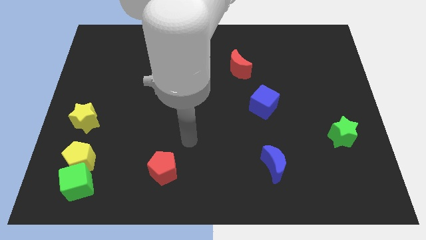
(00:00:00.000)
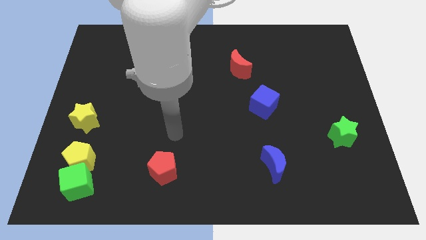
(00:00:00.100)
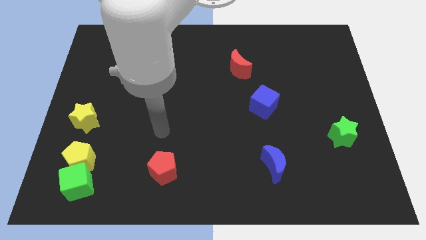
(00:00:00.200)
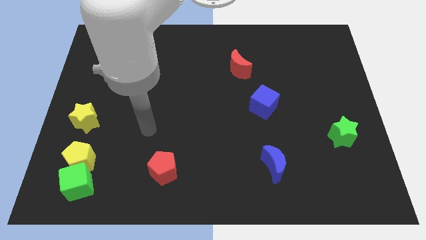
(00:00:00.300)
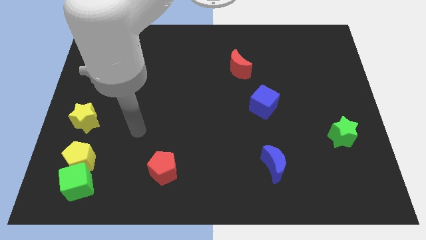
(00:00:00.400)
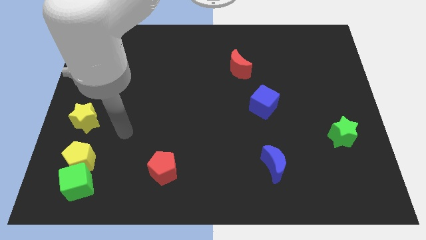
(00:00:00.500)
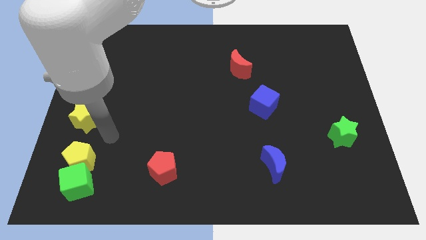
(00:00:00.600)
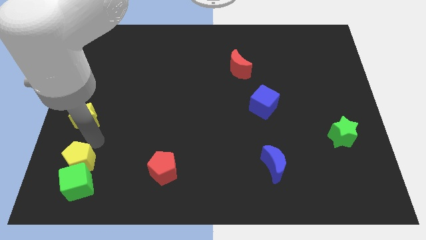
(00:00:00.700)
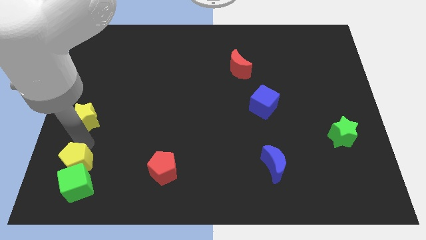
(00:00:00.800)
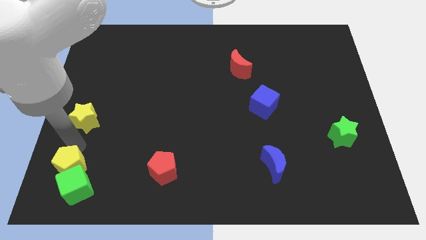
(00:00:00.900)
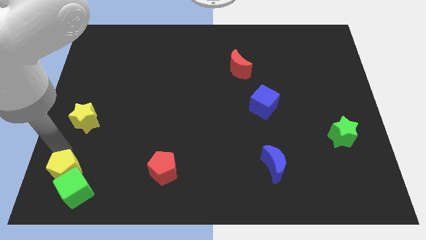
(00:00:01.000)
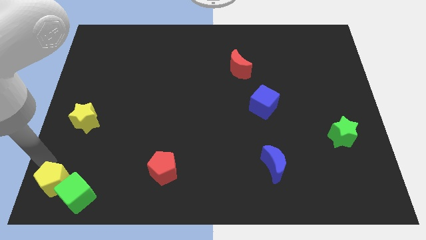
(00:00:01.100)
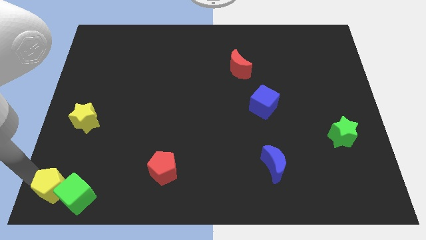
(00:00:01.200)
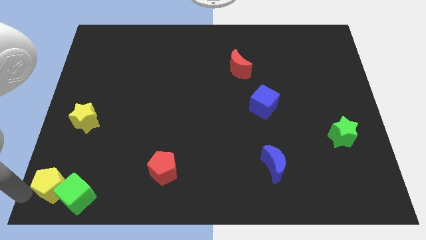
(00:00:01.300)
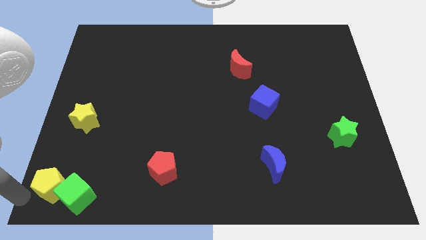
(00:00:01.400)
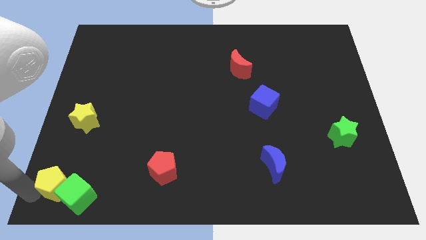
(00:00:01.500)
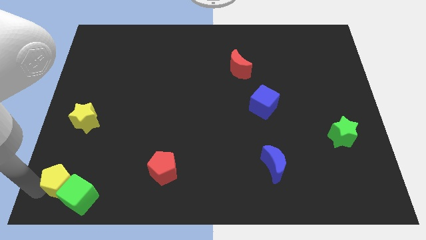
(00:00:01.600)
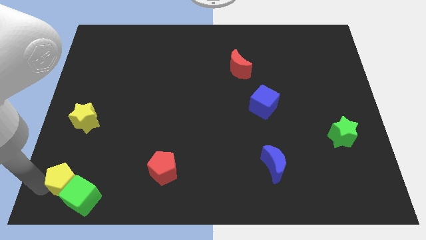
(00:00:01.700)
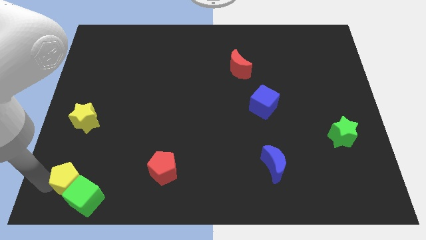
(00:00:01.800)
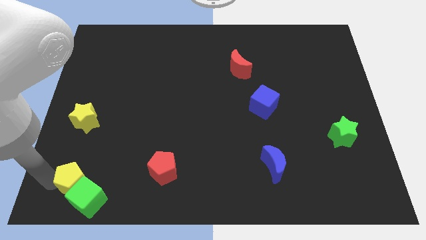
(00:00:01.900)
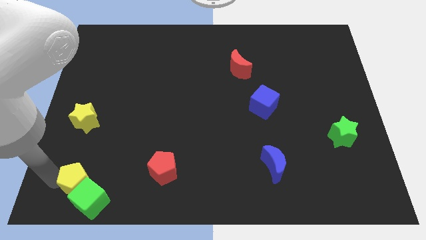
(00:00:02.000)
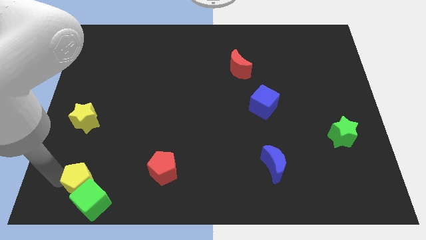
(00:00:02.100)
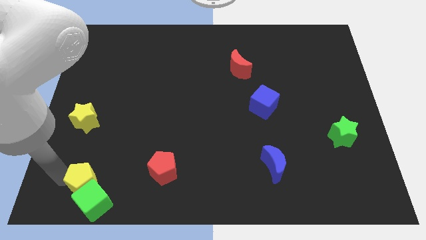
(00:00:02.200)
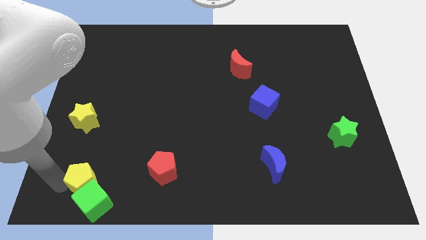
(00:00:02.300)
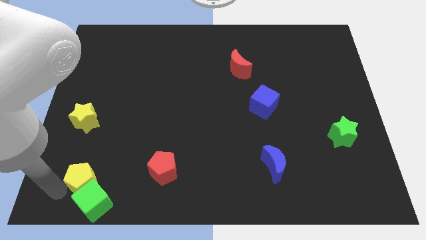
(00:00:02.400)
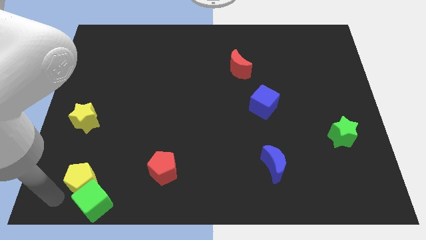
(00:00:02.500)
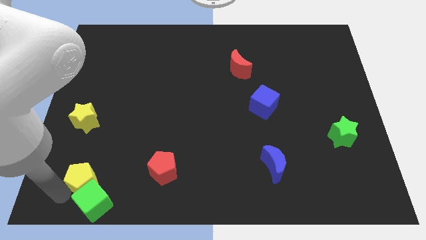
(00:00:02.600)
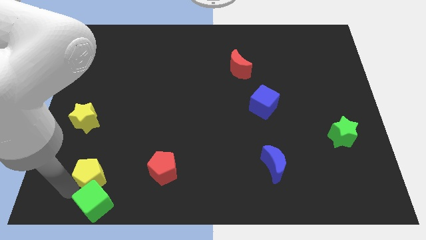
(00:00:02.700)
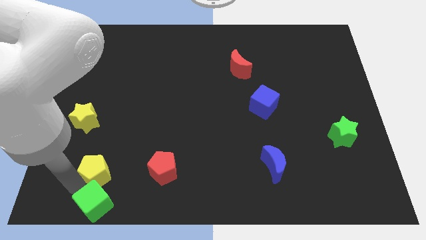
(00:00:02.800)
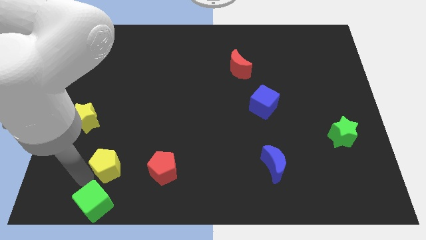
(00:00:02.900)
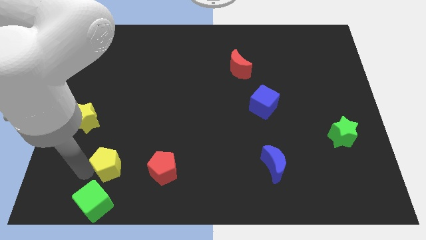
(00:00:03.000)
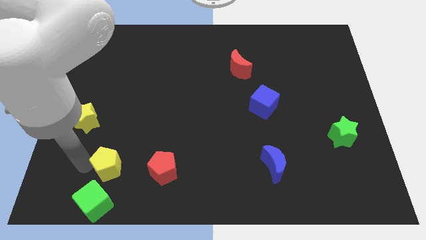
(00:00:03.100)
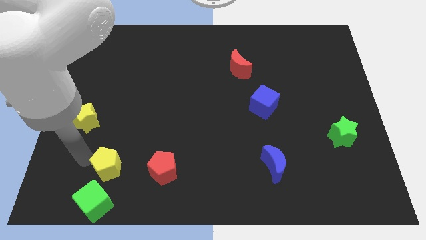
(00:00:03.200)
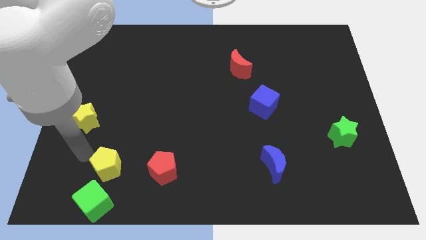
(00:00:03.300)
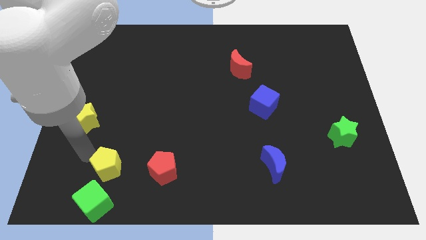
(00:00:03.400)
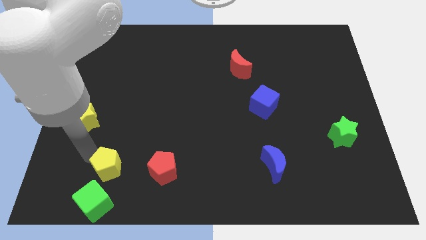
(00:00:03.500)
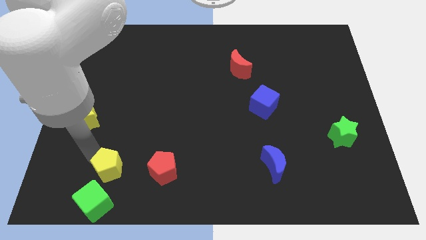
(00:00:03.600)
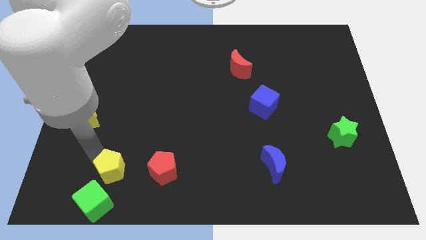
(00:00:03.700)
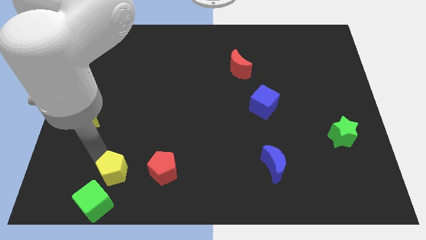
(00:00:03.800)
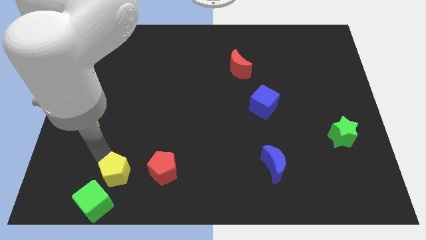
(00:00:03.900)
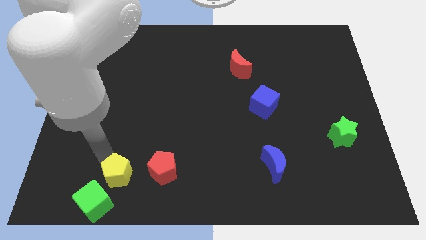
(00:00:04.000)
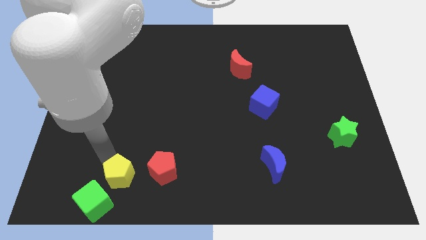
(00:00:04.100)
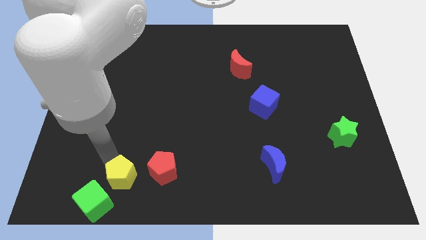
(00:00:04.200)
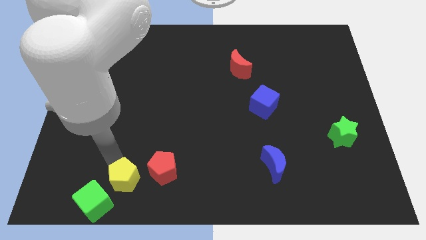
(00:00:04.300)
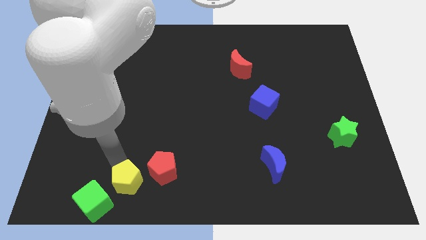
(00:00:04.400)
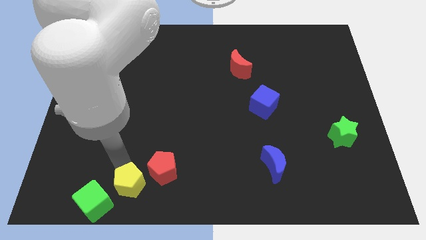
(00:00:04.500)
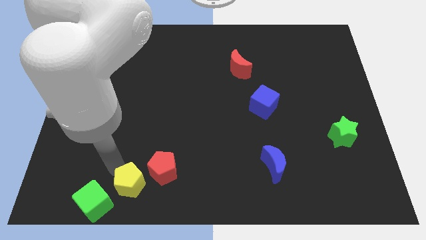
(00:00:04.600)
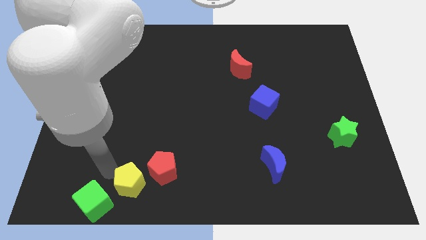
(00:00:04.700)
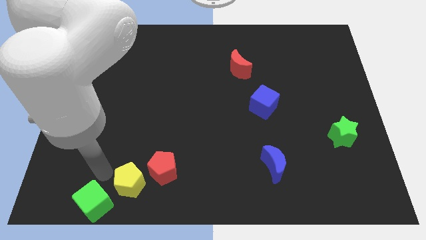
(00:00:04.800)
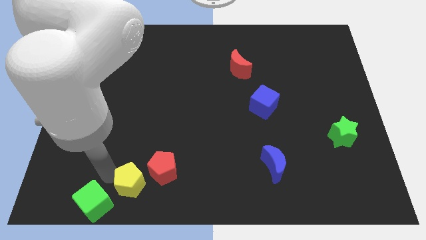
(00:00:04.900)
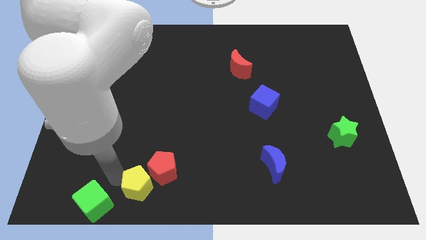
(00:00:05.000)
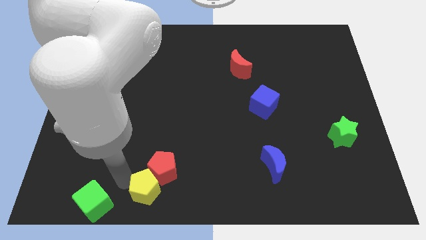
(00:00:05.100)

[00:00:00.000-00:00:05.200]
move the yellow pentagon to the bottom side

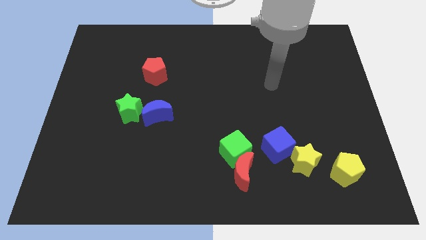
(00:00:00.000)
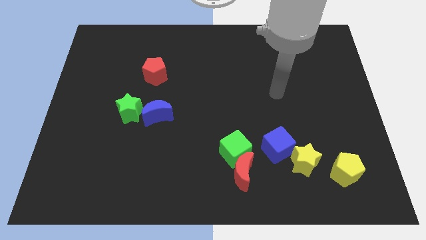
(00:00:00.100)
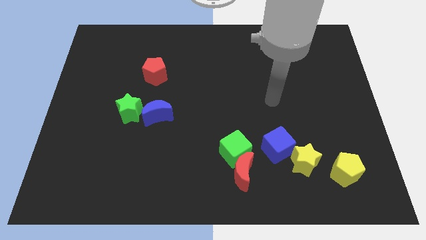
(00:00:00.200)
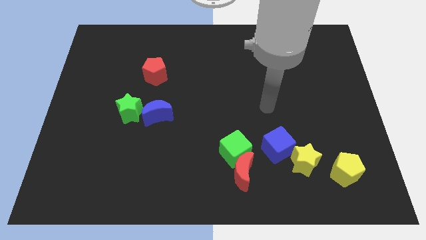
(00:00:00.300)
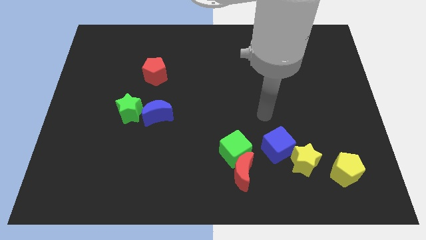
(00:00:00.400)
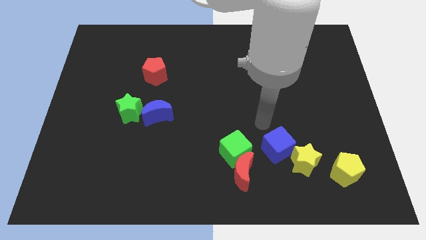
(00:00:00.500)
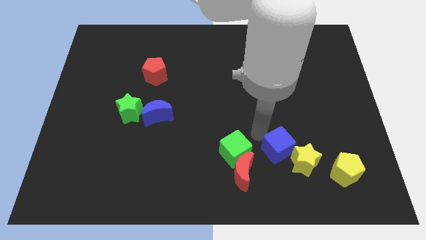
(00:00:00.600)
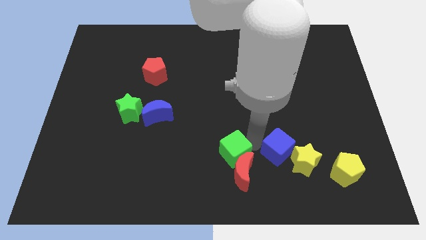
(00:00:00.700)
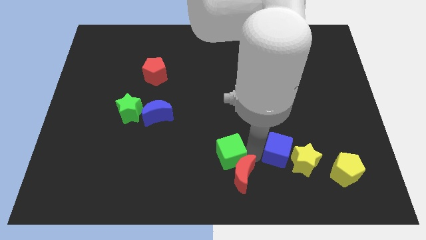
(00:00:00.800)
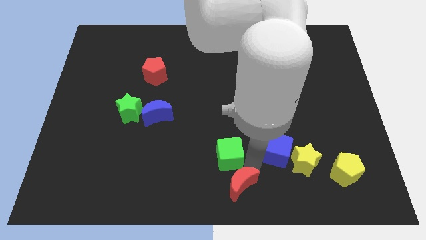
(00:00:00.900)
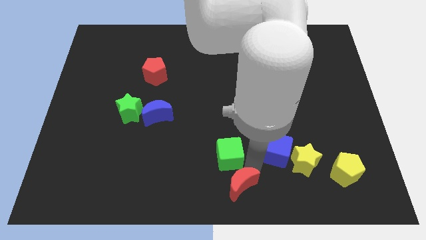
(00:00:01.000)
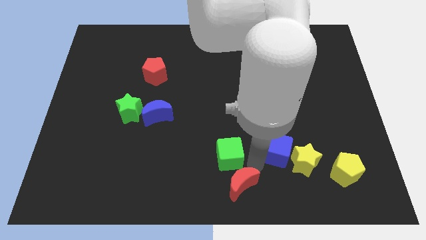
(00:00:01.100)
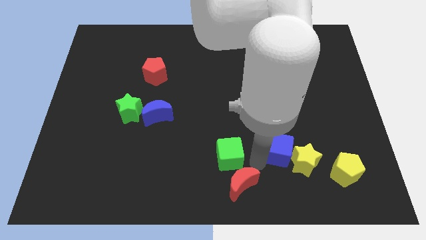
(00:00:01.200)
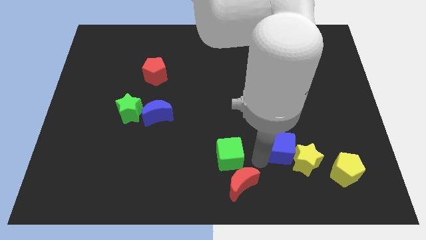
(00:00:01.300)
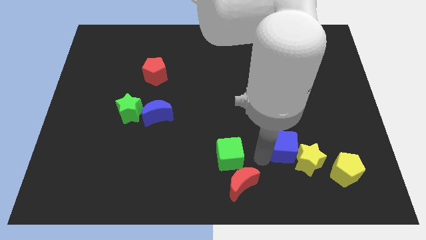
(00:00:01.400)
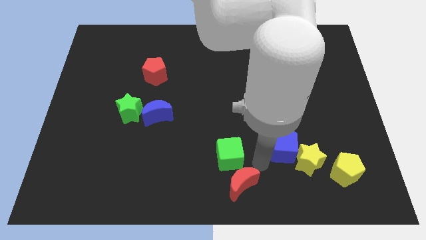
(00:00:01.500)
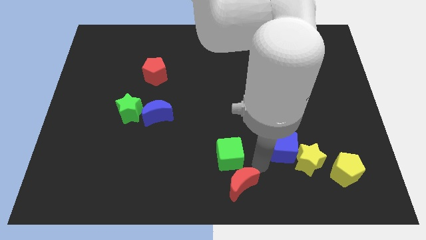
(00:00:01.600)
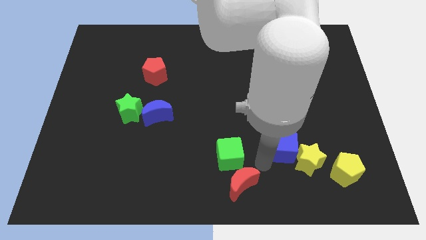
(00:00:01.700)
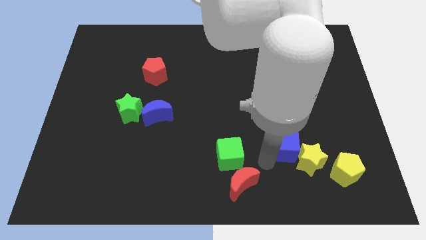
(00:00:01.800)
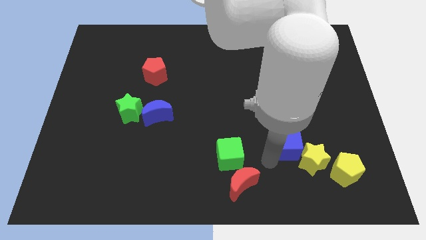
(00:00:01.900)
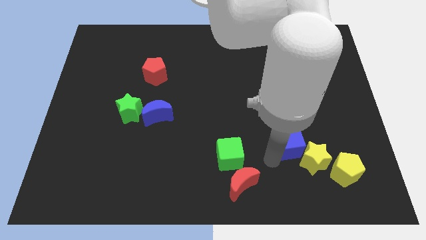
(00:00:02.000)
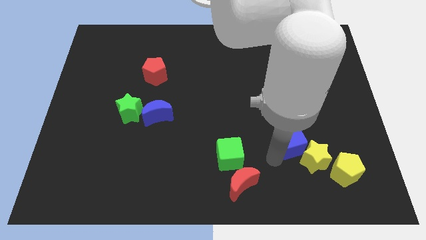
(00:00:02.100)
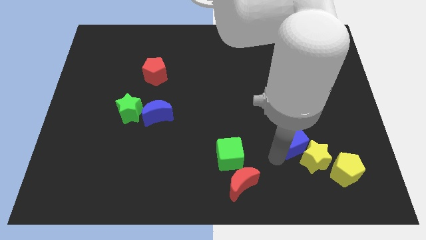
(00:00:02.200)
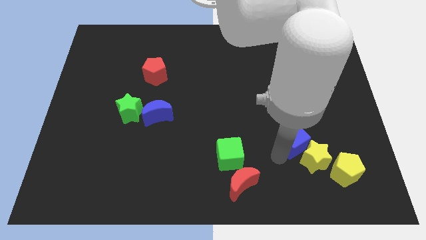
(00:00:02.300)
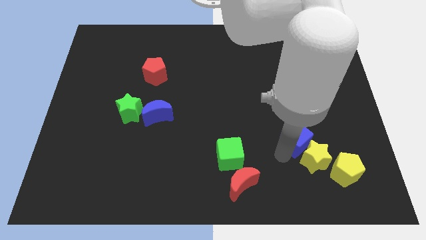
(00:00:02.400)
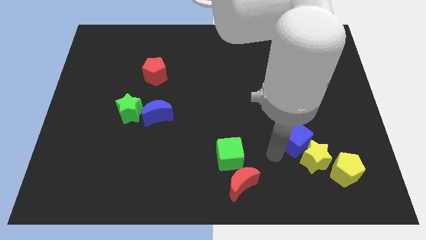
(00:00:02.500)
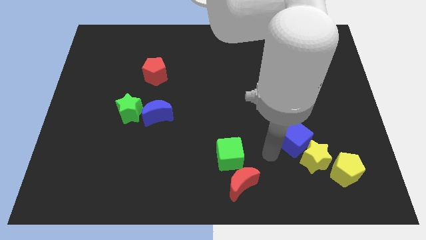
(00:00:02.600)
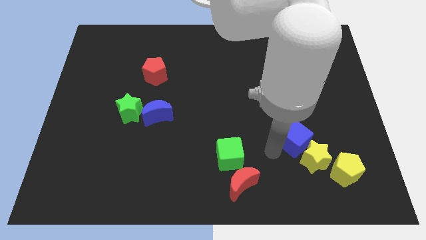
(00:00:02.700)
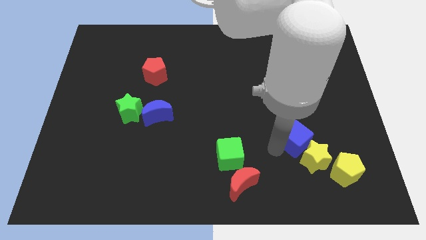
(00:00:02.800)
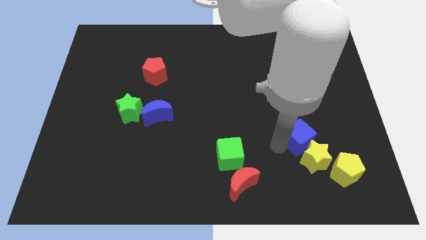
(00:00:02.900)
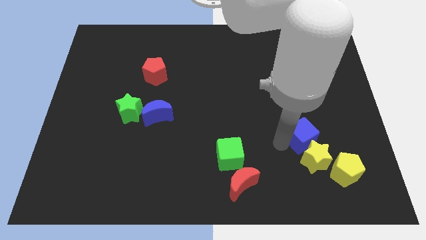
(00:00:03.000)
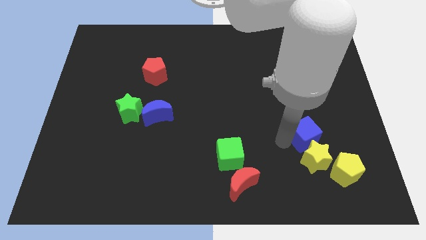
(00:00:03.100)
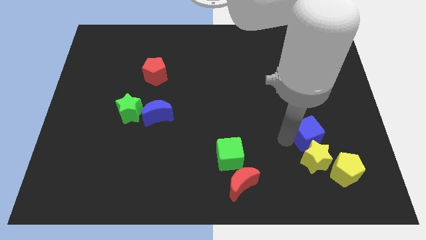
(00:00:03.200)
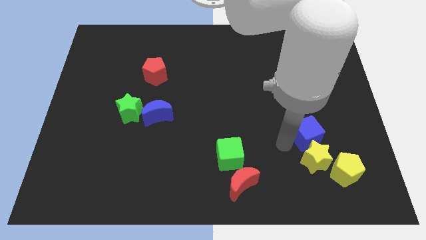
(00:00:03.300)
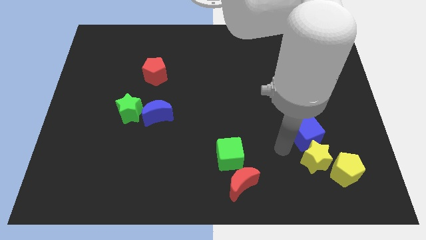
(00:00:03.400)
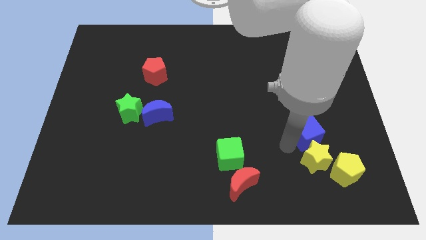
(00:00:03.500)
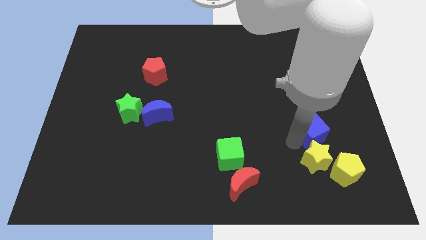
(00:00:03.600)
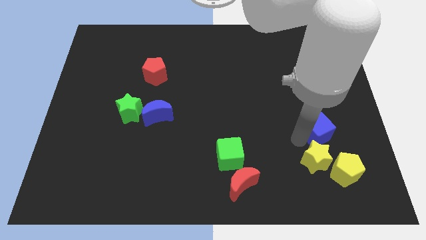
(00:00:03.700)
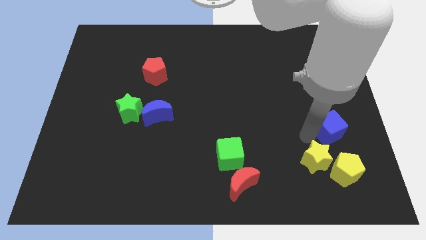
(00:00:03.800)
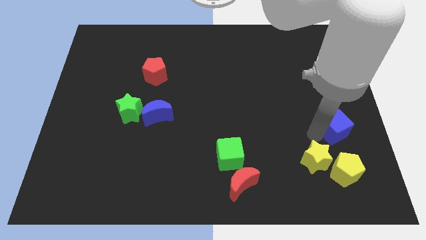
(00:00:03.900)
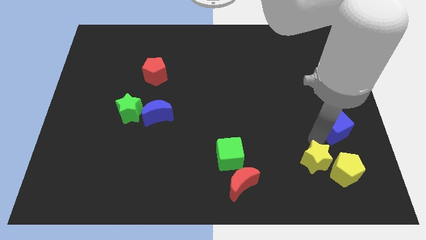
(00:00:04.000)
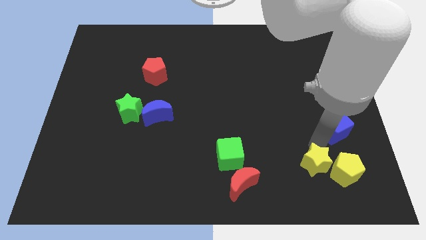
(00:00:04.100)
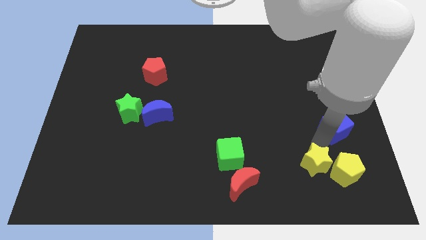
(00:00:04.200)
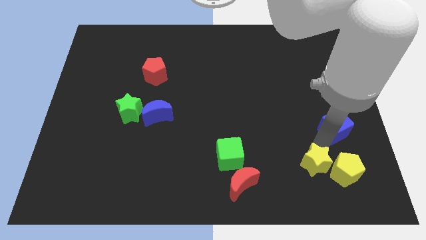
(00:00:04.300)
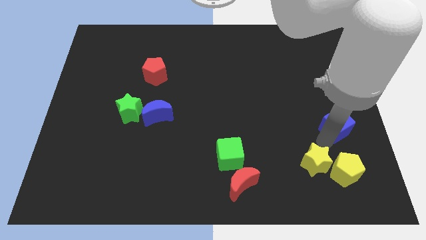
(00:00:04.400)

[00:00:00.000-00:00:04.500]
move the blue cube to the center right
